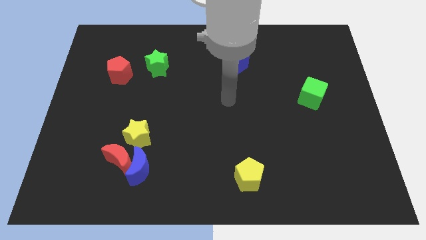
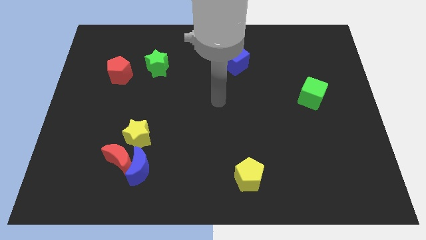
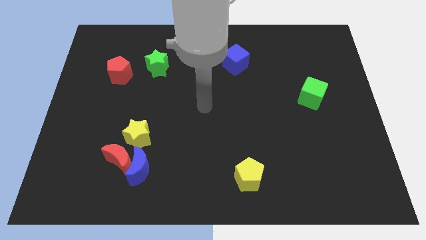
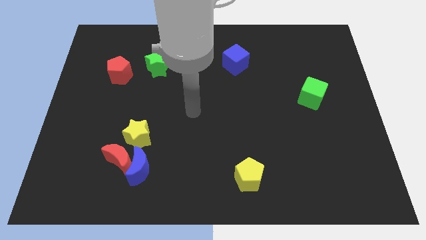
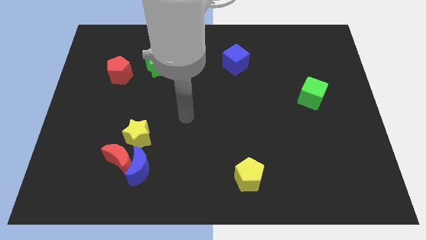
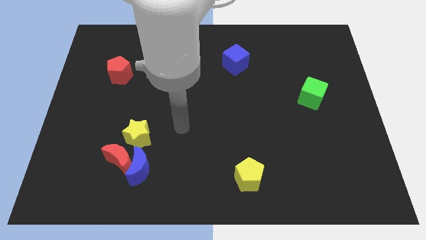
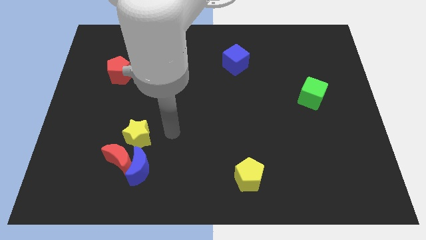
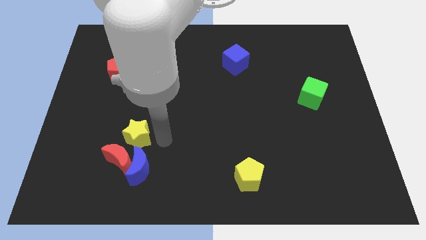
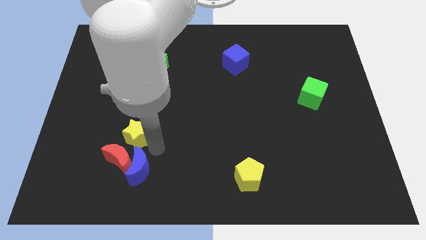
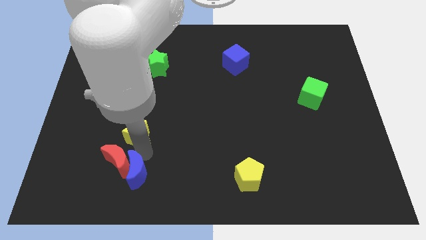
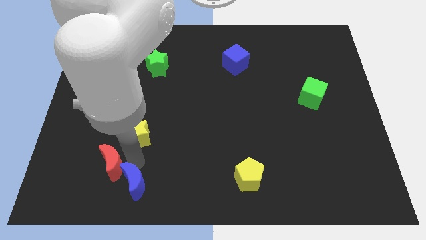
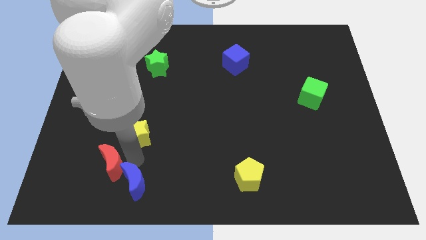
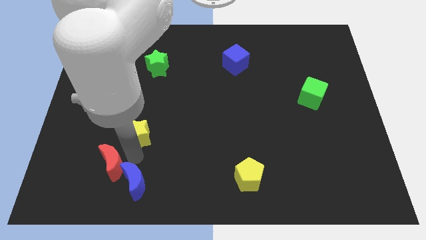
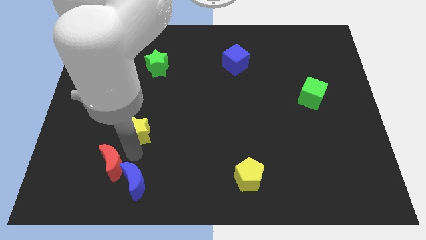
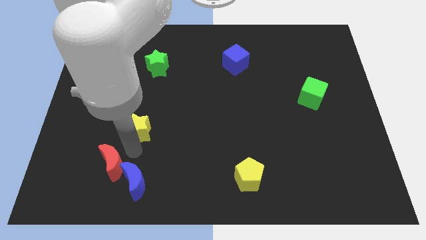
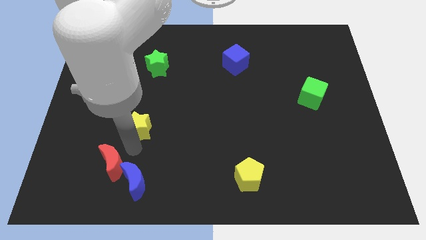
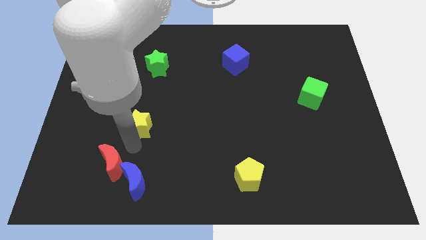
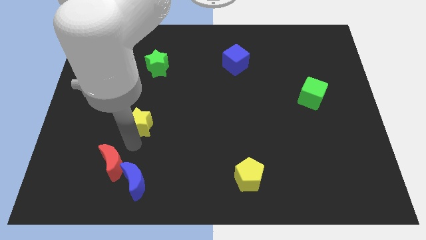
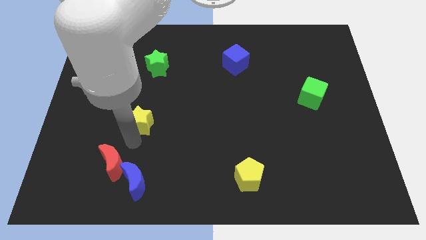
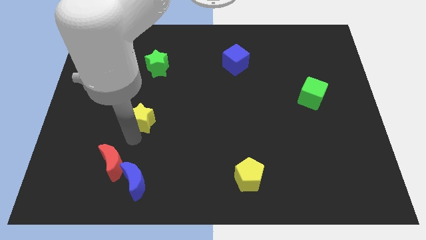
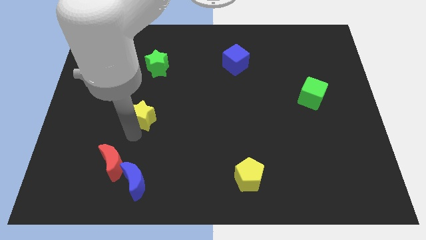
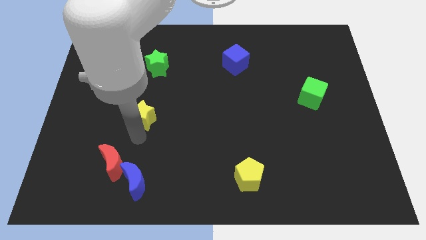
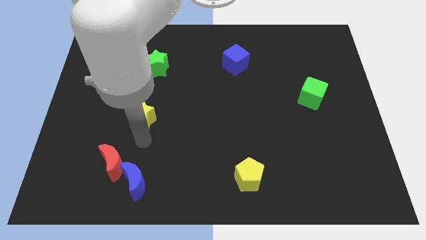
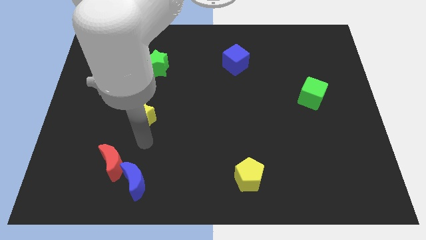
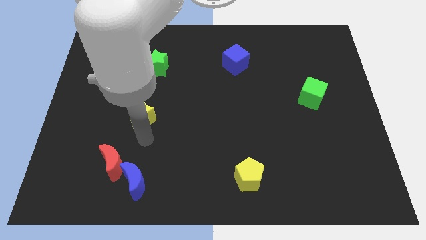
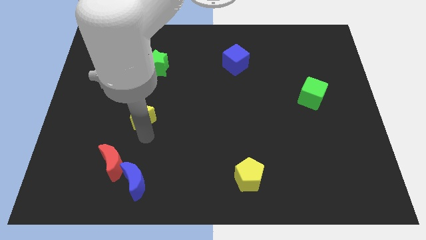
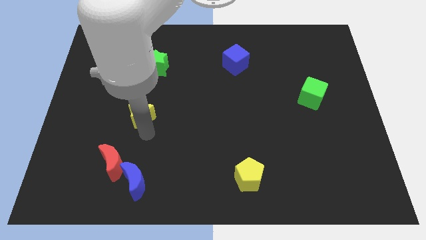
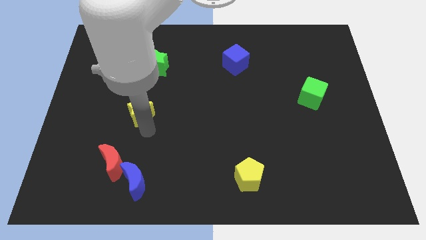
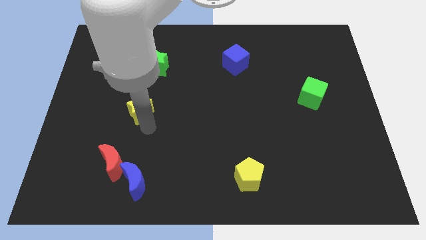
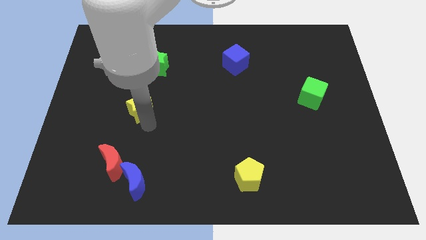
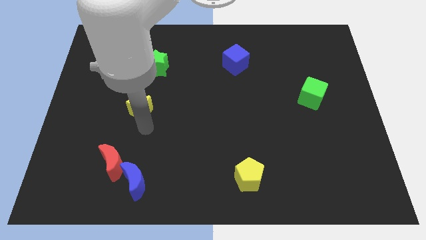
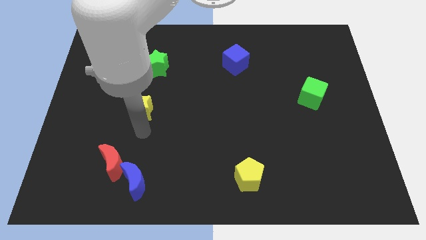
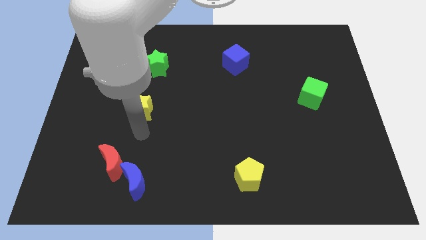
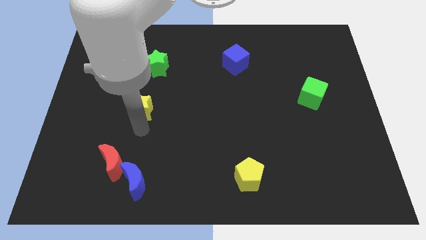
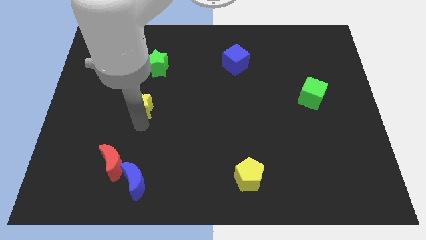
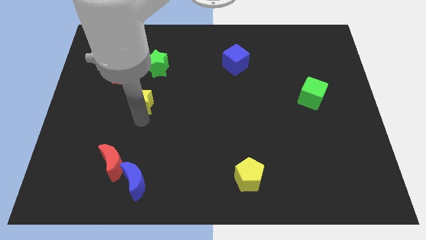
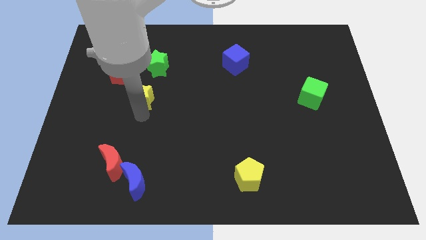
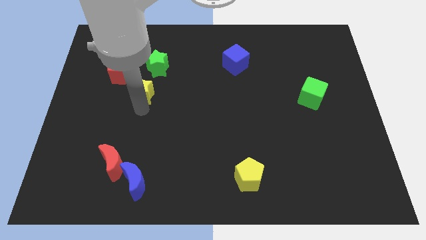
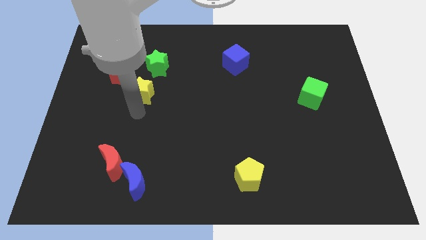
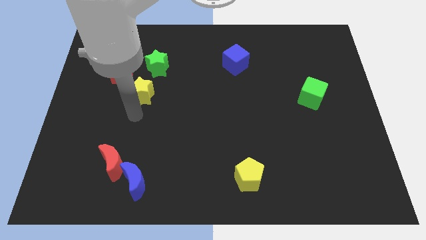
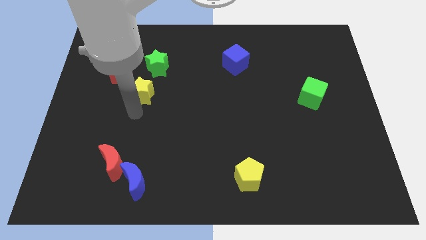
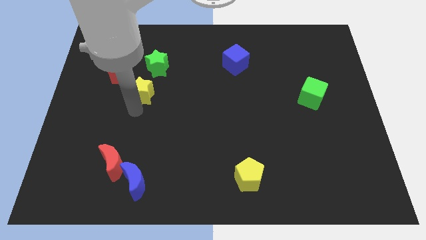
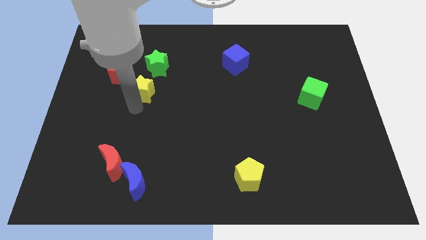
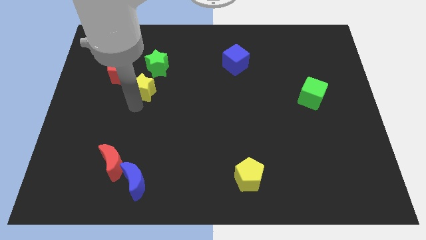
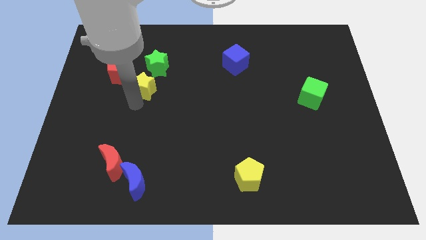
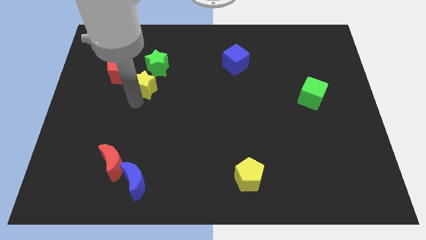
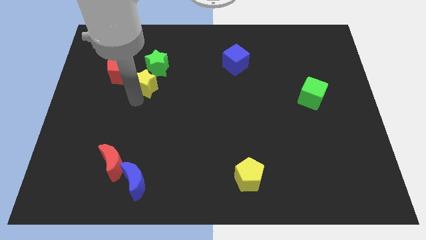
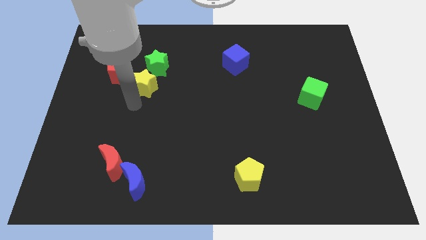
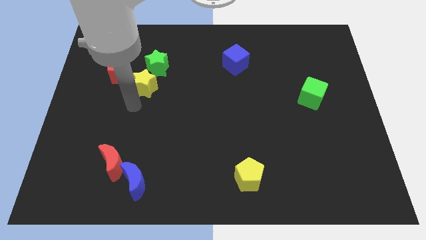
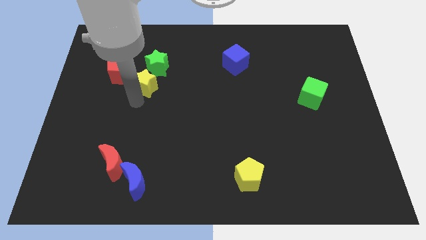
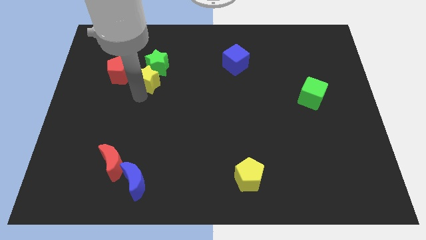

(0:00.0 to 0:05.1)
put the yellow star towards the green star

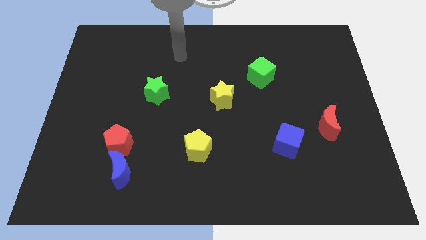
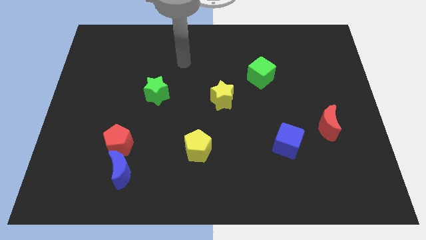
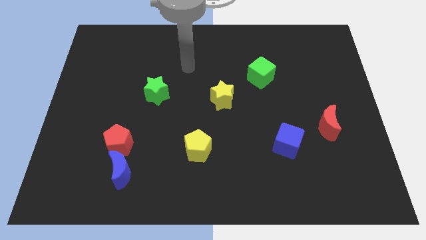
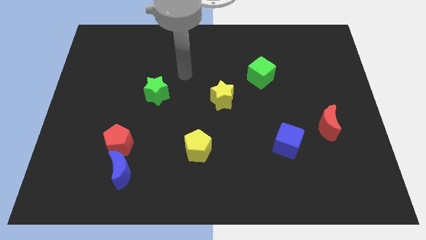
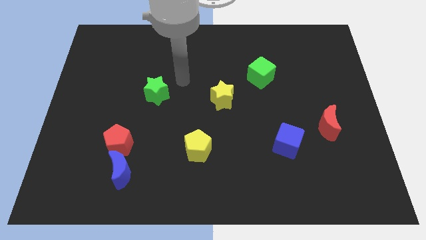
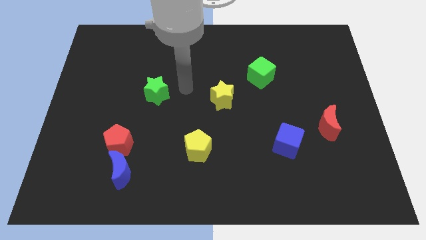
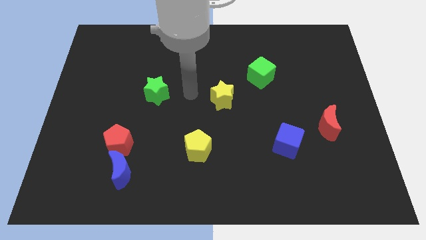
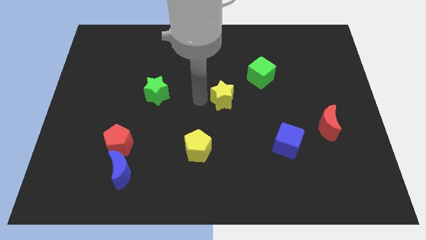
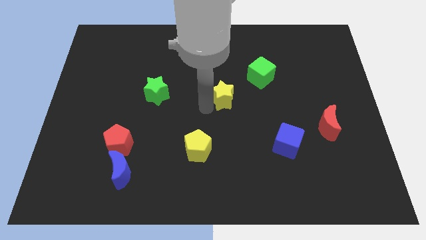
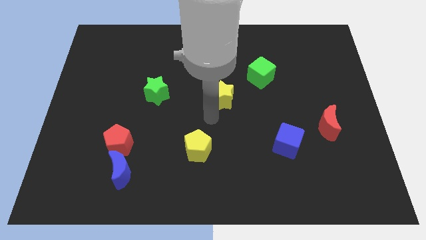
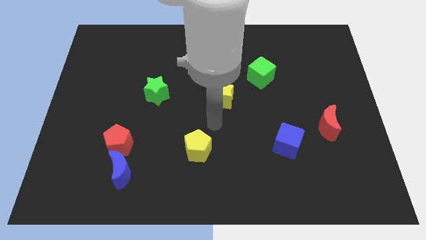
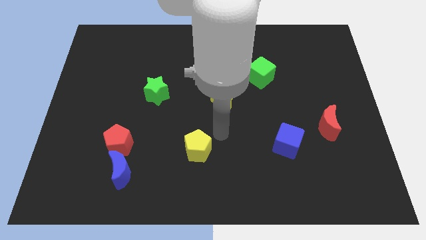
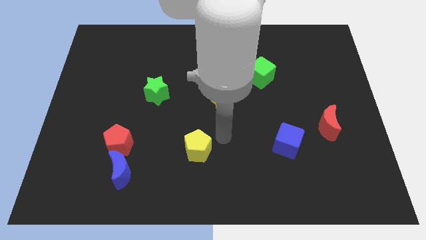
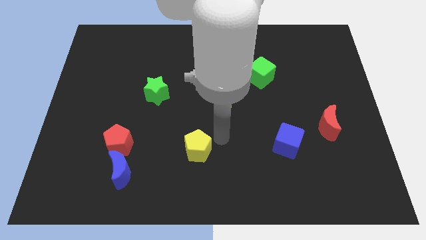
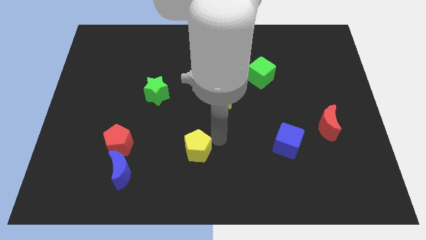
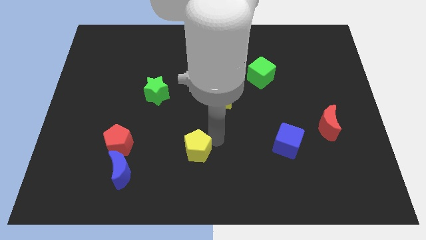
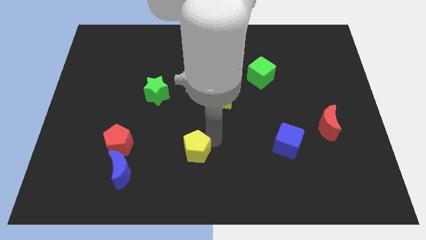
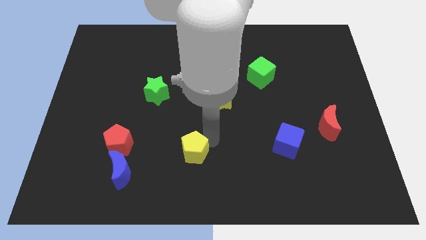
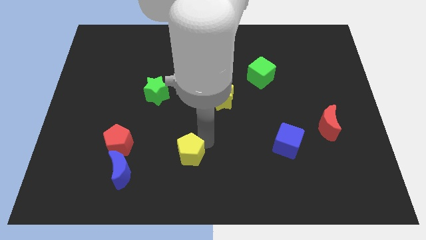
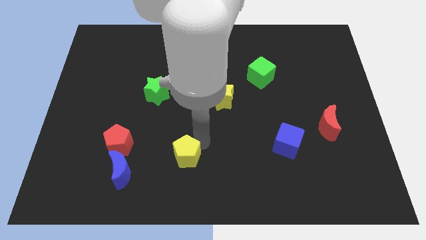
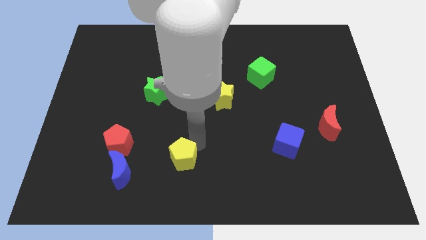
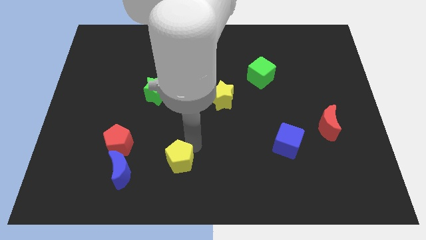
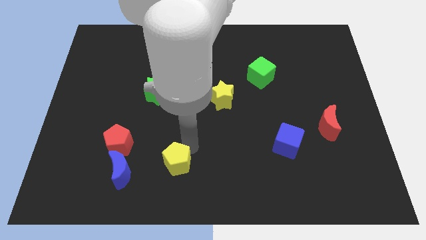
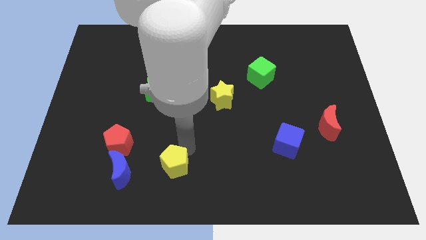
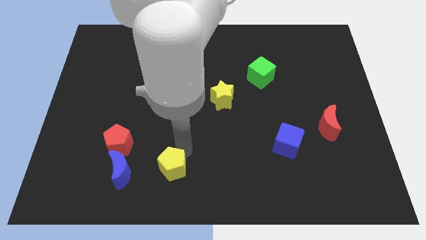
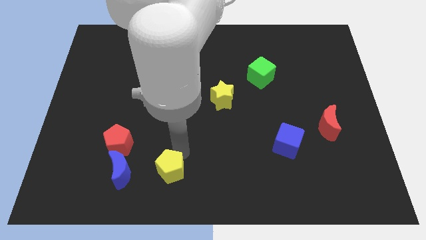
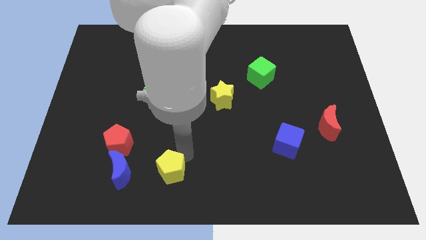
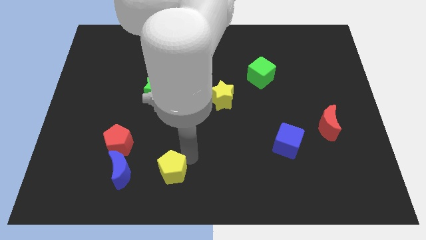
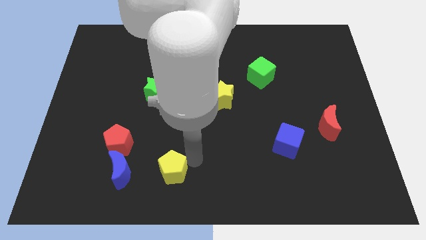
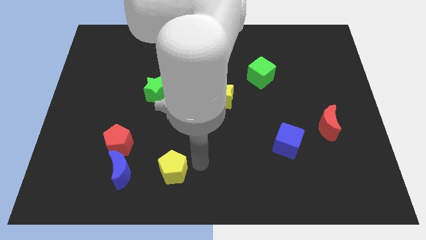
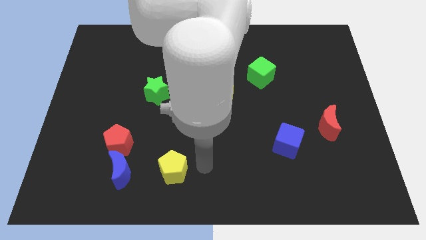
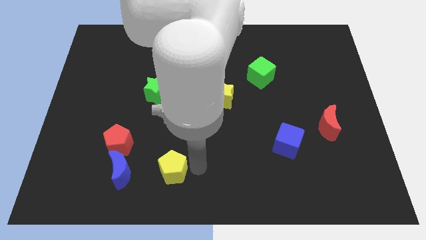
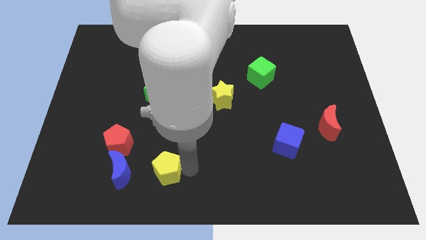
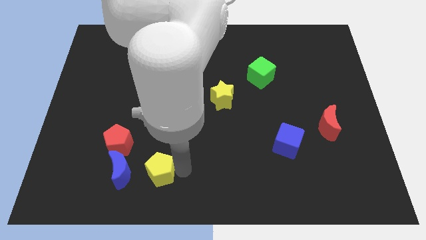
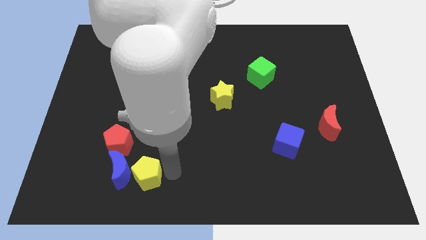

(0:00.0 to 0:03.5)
slide the yellow pentagon next to the blue moon

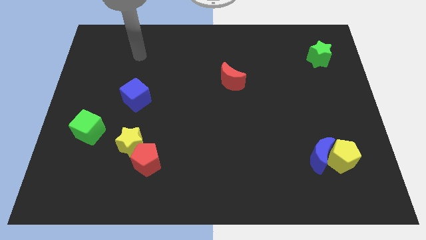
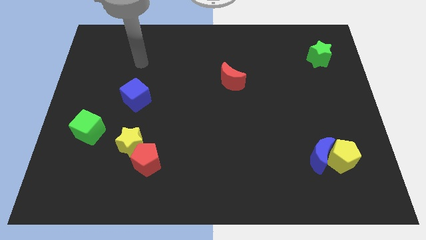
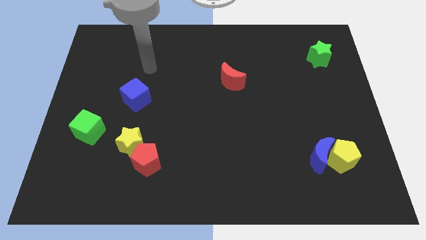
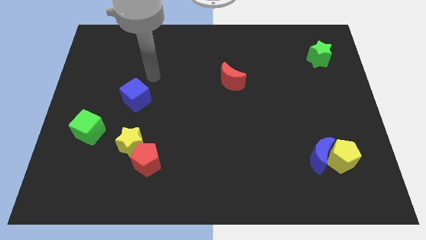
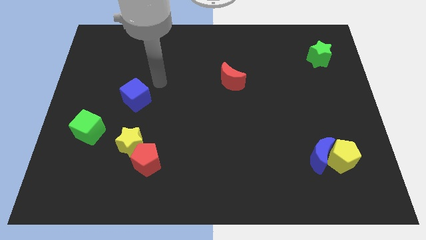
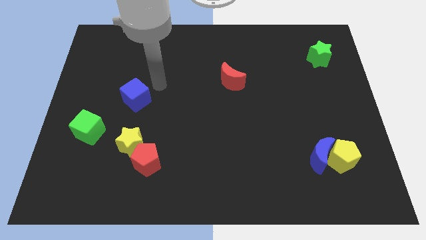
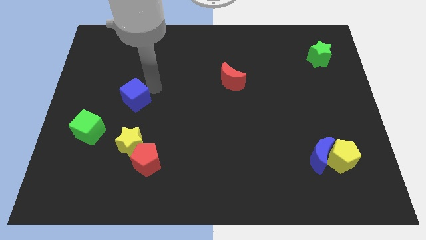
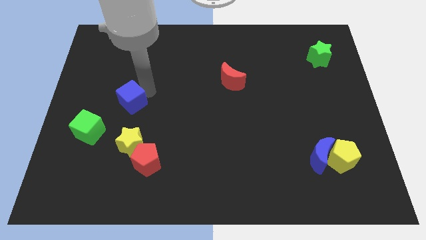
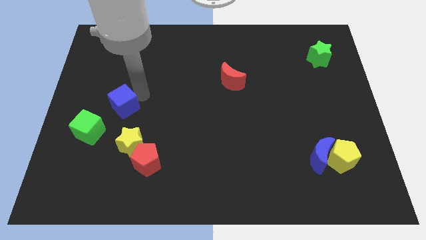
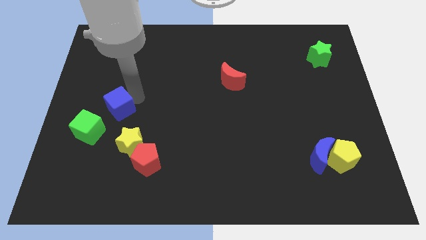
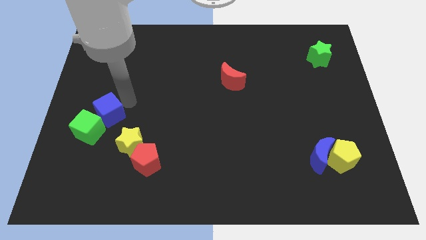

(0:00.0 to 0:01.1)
put the blue cube next to the green cube
